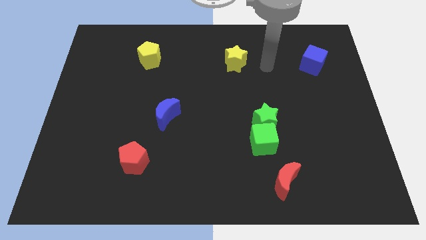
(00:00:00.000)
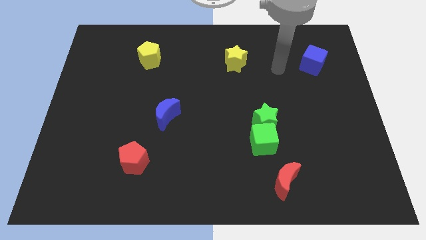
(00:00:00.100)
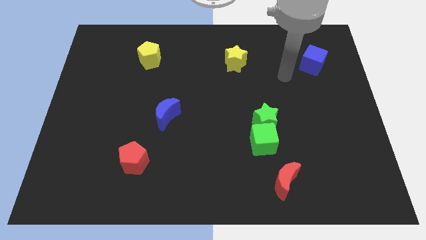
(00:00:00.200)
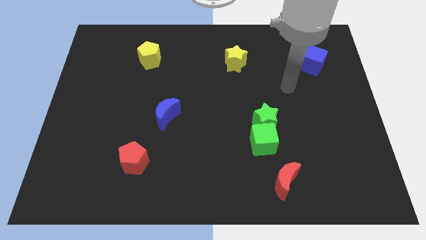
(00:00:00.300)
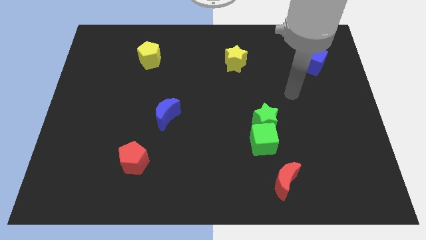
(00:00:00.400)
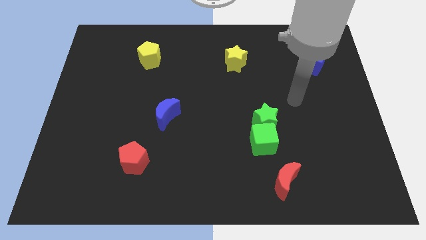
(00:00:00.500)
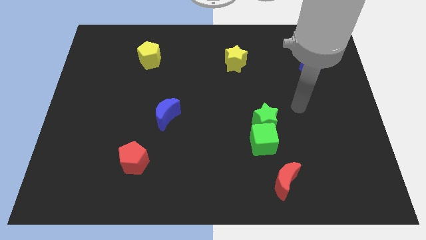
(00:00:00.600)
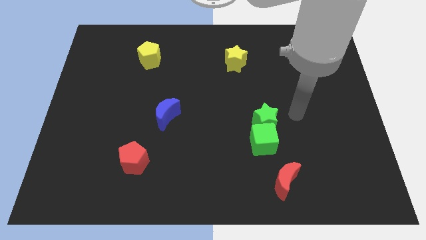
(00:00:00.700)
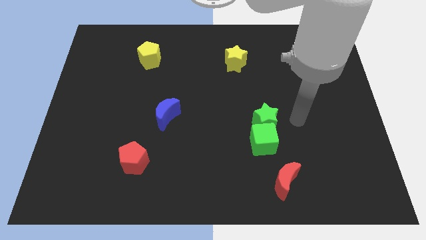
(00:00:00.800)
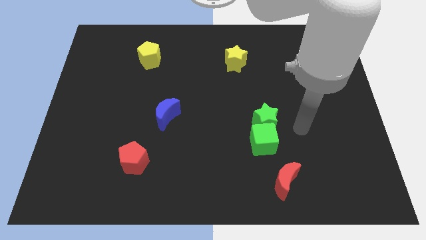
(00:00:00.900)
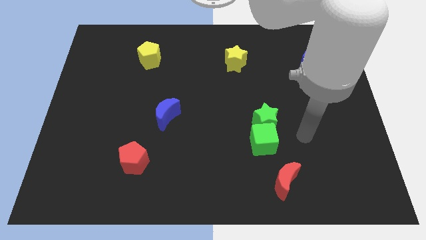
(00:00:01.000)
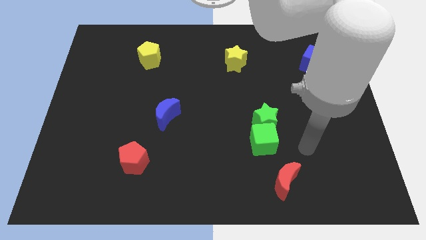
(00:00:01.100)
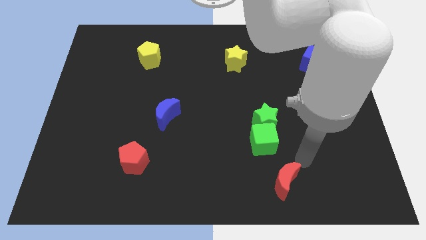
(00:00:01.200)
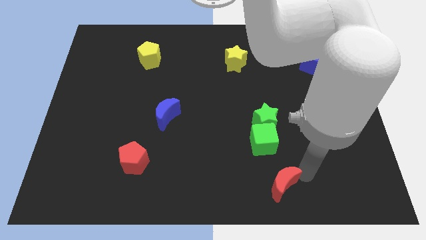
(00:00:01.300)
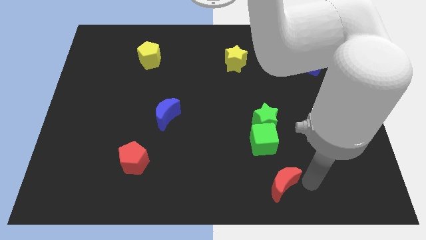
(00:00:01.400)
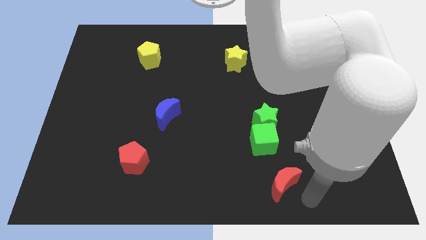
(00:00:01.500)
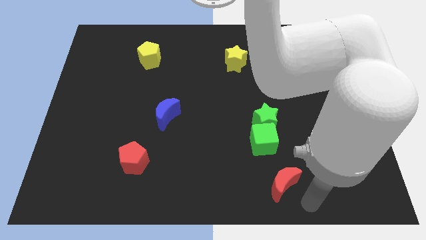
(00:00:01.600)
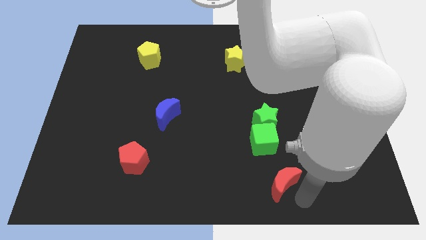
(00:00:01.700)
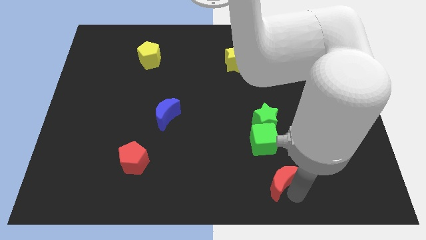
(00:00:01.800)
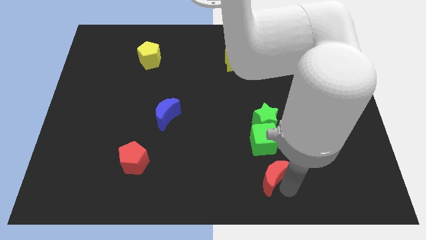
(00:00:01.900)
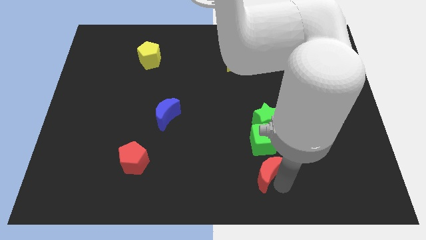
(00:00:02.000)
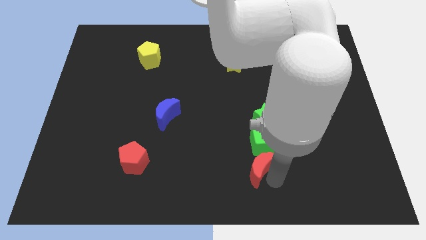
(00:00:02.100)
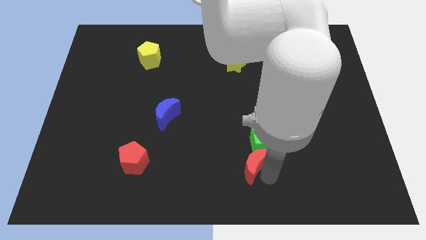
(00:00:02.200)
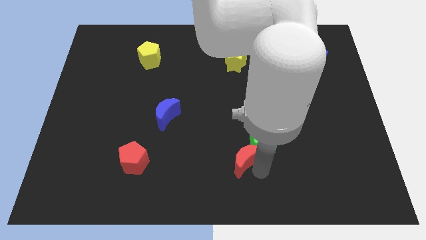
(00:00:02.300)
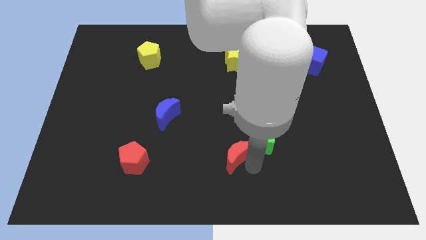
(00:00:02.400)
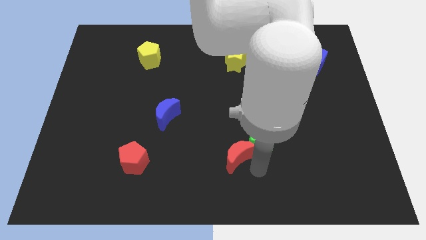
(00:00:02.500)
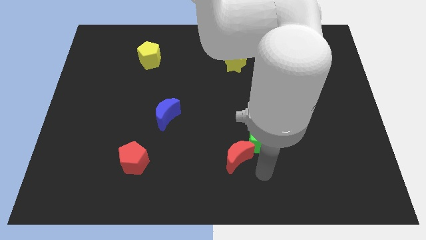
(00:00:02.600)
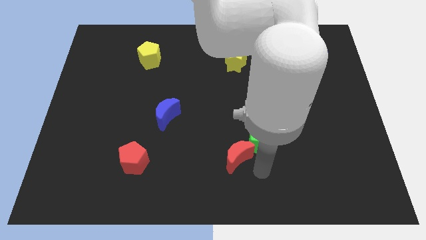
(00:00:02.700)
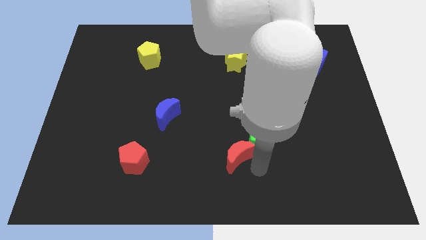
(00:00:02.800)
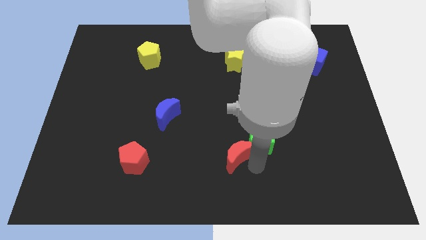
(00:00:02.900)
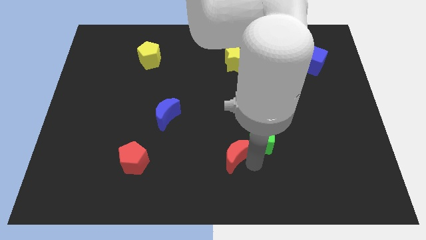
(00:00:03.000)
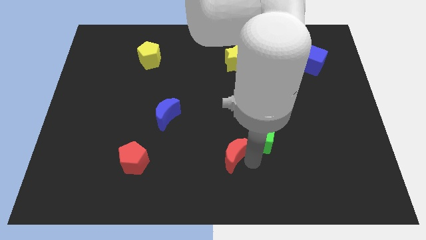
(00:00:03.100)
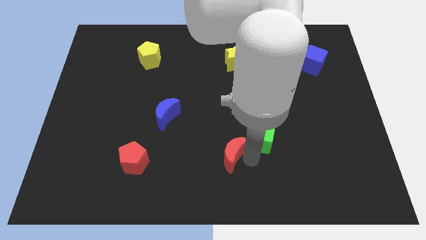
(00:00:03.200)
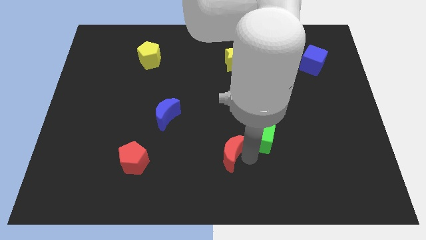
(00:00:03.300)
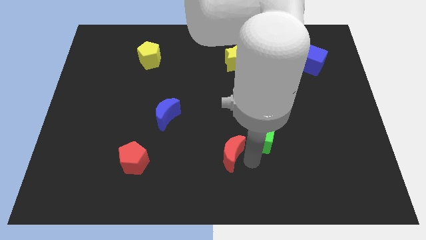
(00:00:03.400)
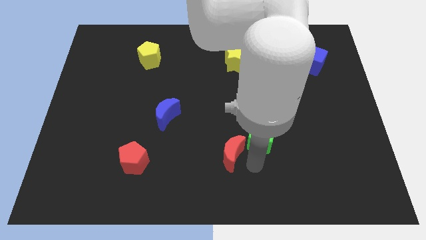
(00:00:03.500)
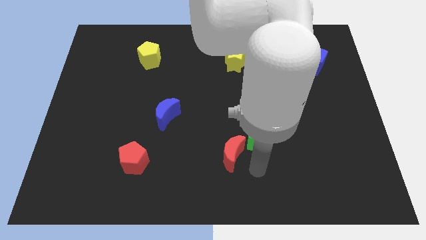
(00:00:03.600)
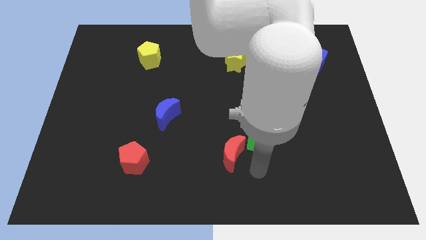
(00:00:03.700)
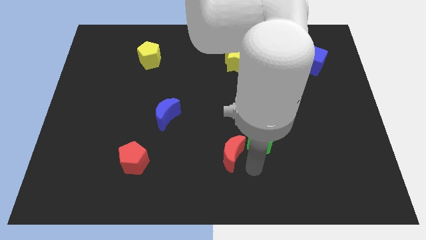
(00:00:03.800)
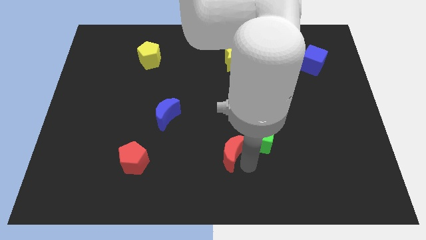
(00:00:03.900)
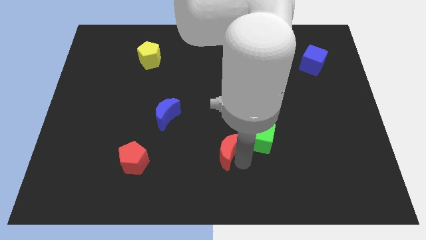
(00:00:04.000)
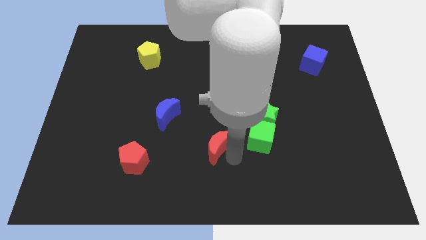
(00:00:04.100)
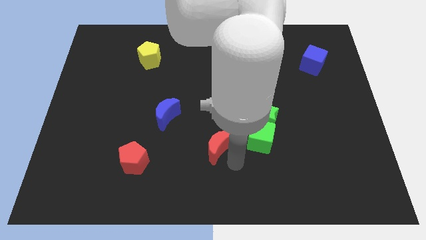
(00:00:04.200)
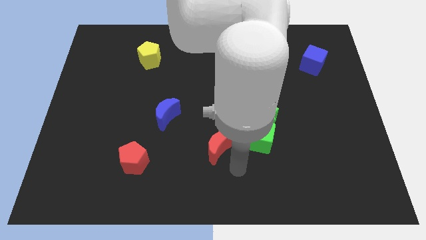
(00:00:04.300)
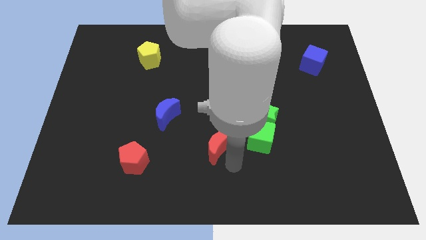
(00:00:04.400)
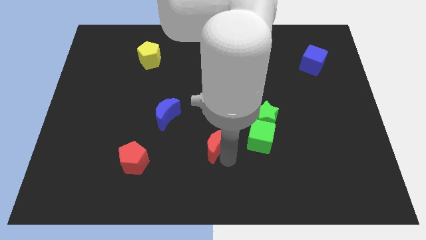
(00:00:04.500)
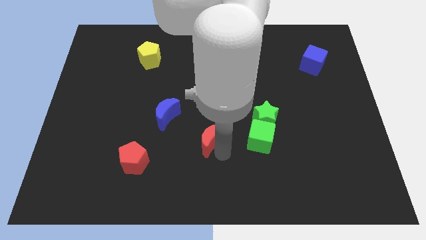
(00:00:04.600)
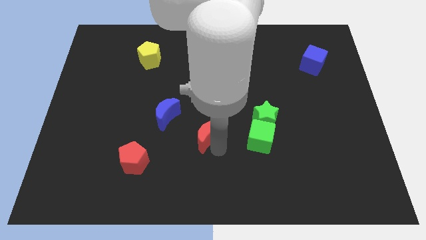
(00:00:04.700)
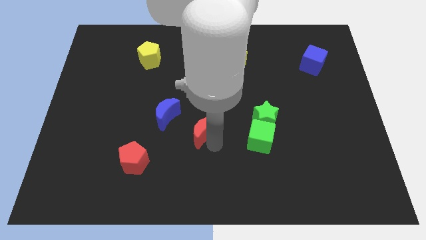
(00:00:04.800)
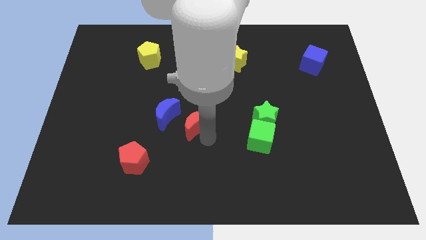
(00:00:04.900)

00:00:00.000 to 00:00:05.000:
slide the red moon upwards and to the left diagonally

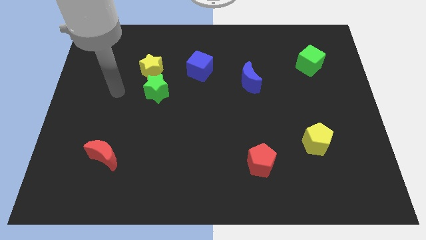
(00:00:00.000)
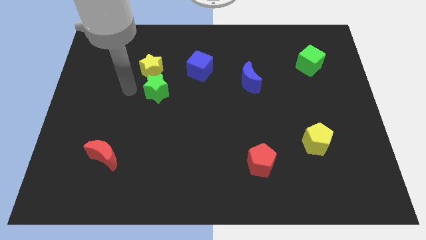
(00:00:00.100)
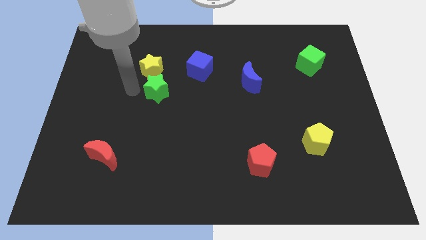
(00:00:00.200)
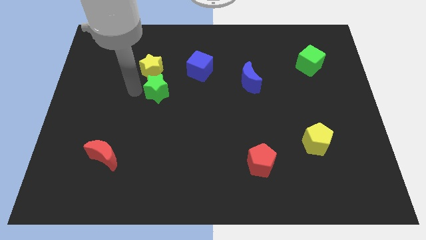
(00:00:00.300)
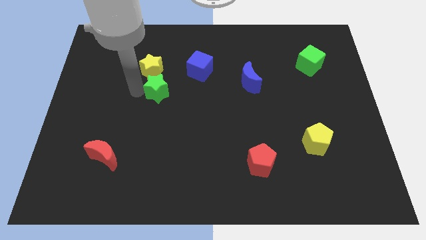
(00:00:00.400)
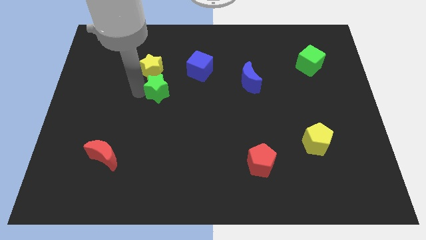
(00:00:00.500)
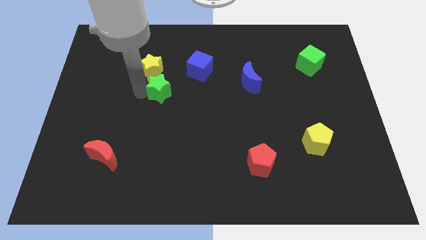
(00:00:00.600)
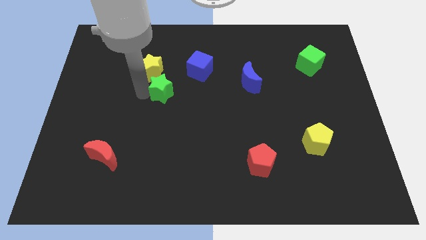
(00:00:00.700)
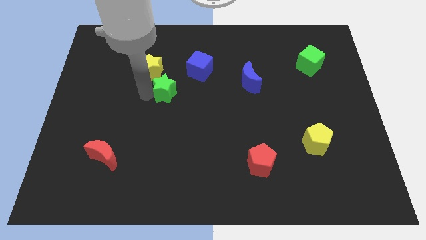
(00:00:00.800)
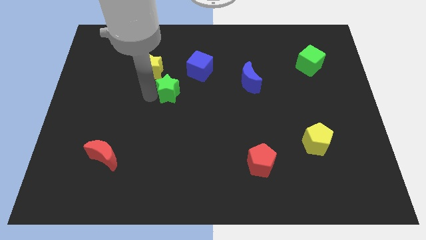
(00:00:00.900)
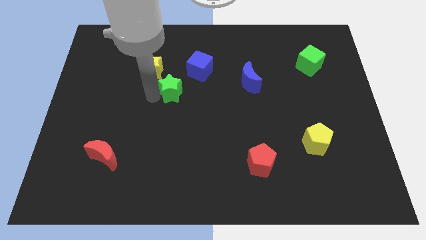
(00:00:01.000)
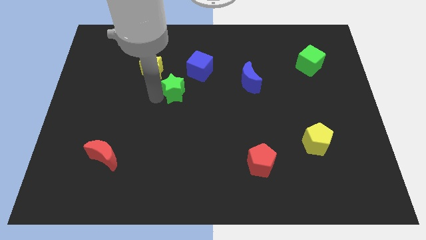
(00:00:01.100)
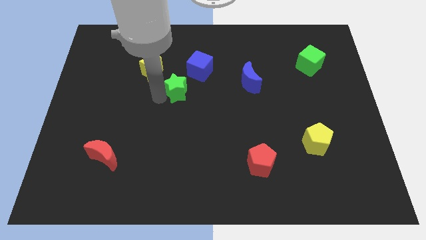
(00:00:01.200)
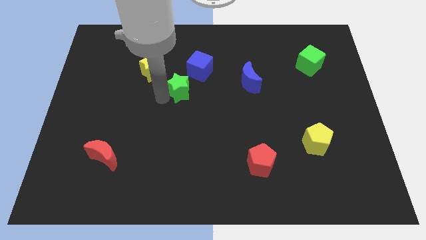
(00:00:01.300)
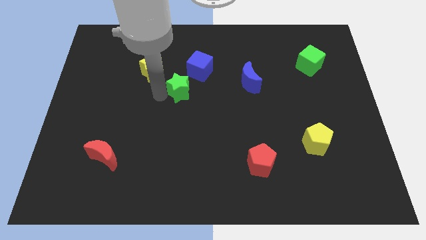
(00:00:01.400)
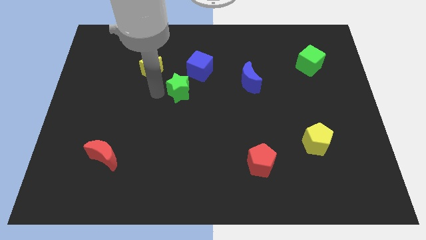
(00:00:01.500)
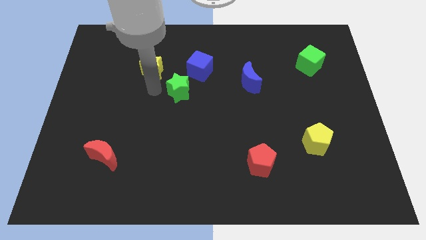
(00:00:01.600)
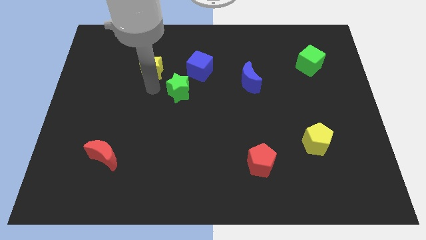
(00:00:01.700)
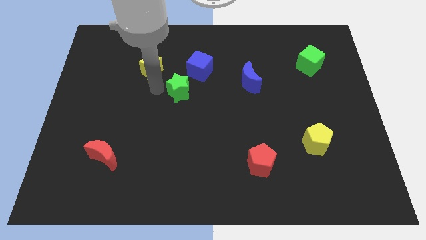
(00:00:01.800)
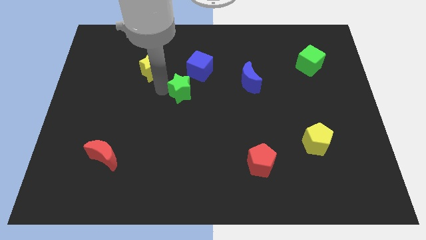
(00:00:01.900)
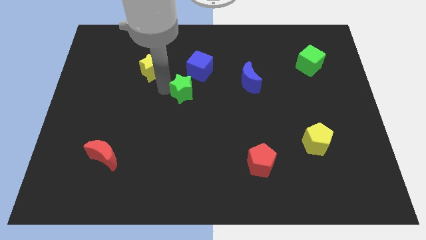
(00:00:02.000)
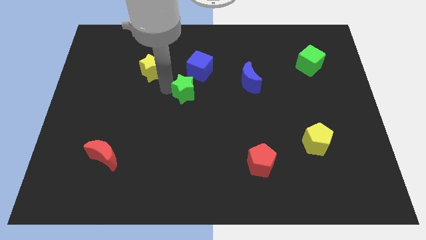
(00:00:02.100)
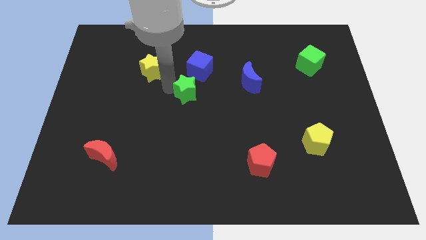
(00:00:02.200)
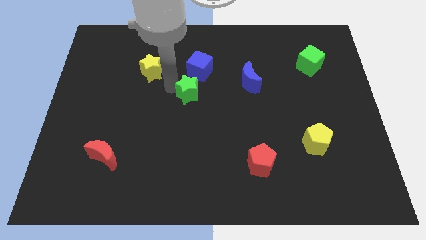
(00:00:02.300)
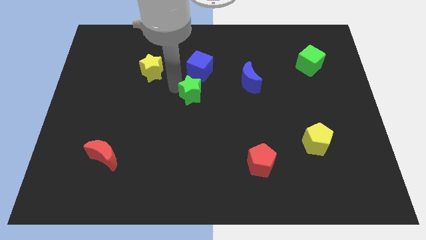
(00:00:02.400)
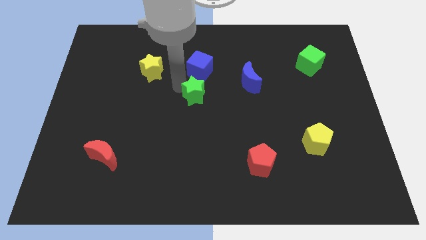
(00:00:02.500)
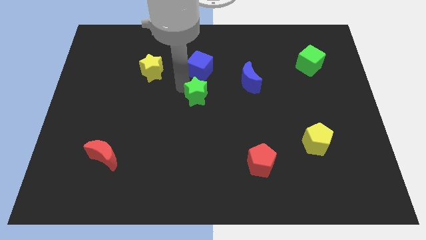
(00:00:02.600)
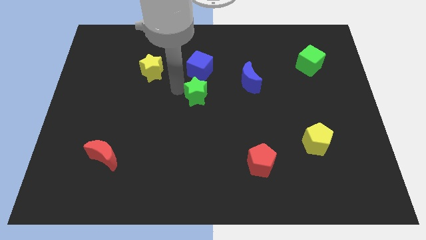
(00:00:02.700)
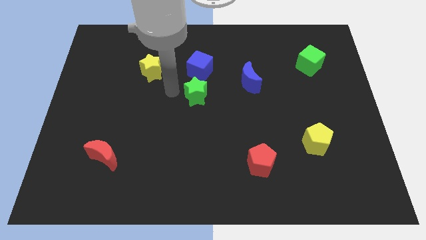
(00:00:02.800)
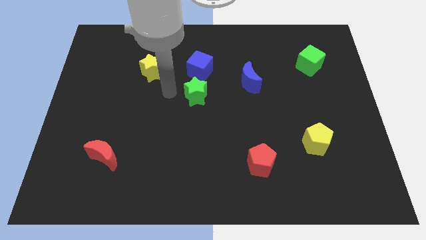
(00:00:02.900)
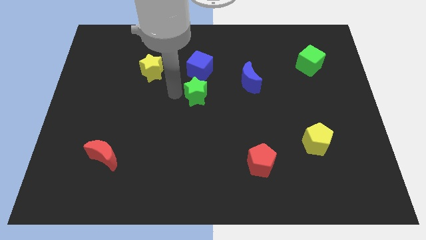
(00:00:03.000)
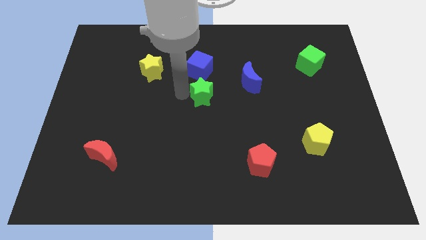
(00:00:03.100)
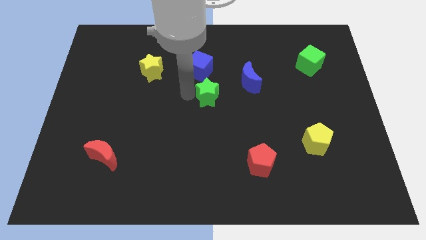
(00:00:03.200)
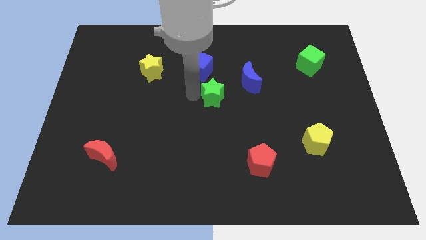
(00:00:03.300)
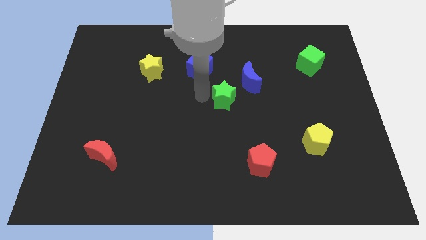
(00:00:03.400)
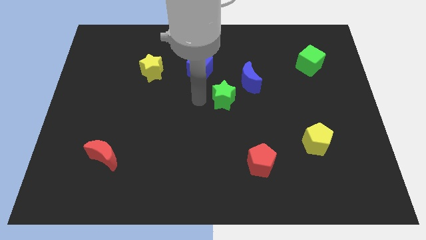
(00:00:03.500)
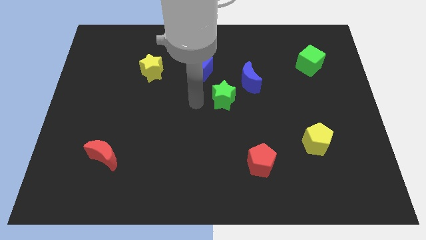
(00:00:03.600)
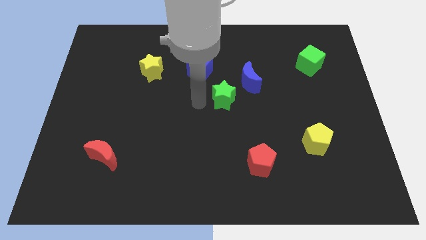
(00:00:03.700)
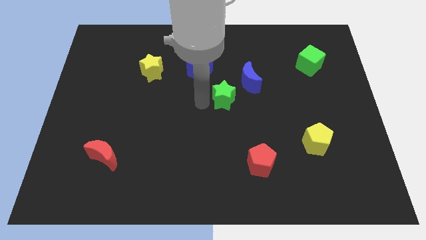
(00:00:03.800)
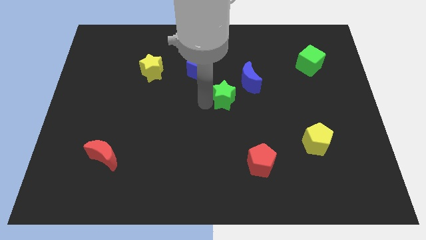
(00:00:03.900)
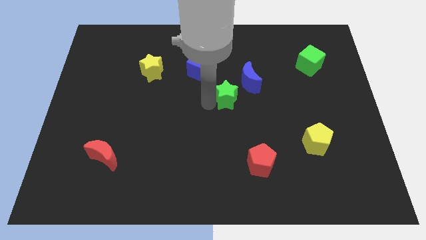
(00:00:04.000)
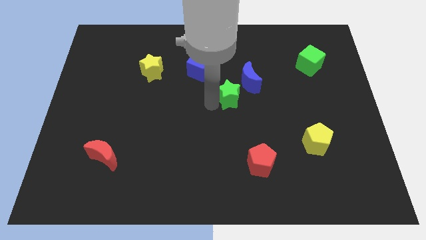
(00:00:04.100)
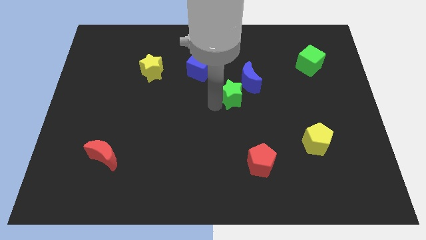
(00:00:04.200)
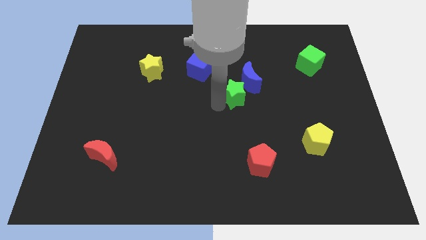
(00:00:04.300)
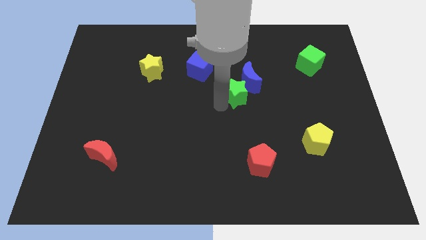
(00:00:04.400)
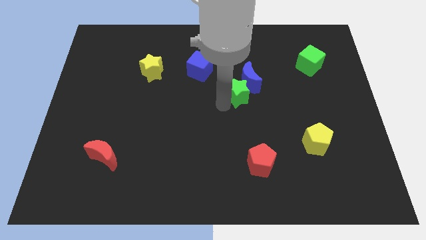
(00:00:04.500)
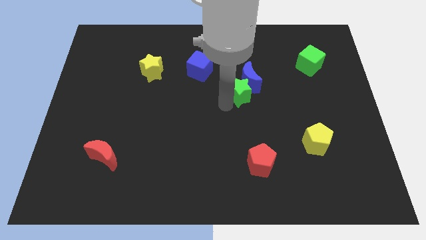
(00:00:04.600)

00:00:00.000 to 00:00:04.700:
slide the green star to the right
